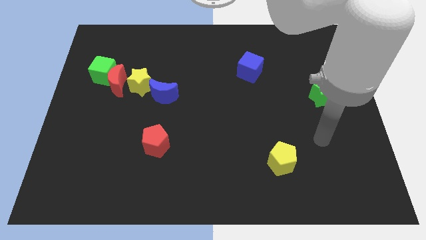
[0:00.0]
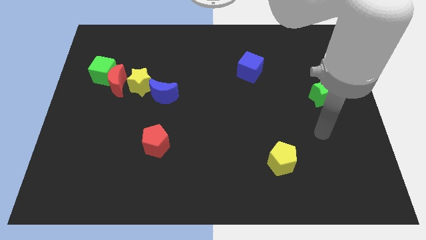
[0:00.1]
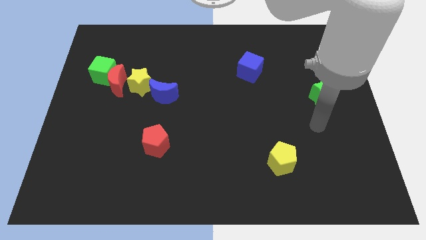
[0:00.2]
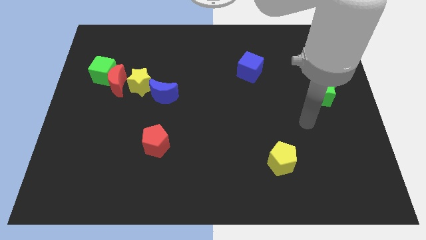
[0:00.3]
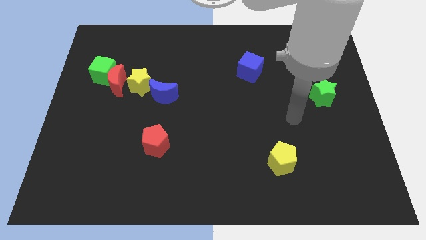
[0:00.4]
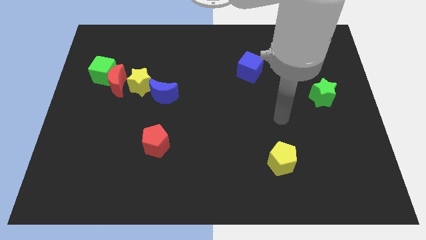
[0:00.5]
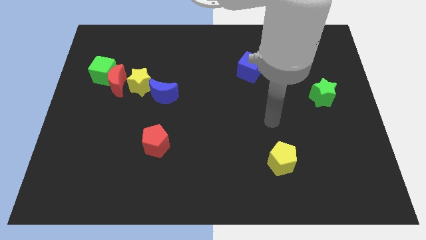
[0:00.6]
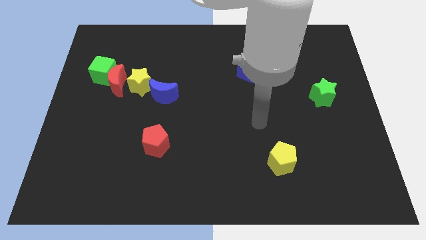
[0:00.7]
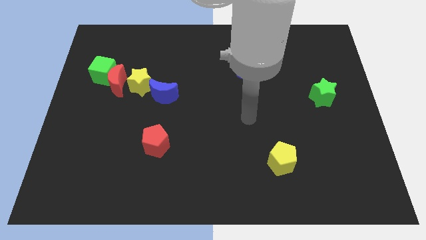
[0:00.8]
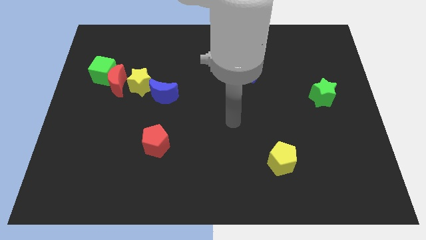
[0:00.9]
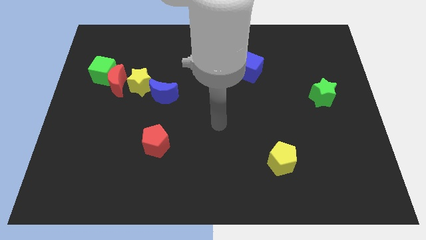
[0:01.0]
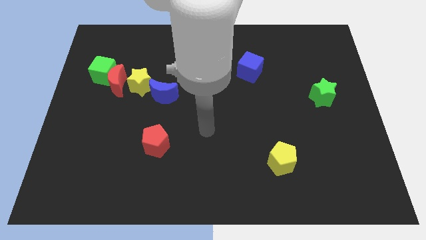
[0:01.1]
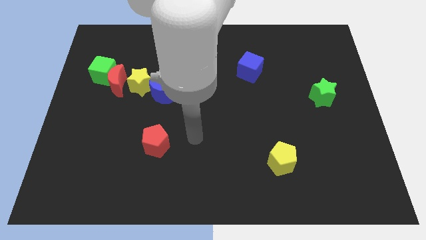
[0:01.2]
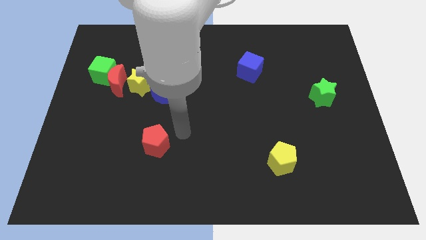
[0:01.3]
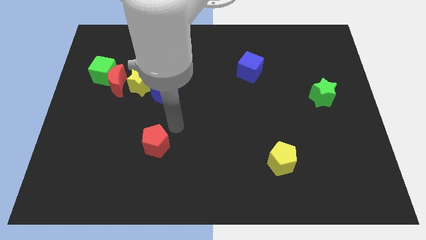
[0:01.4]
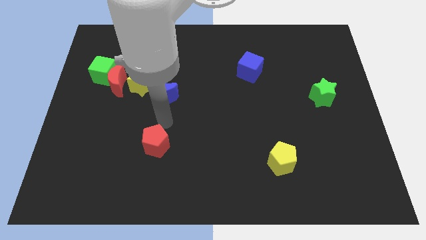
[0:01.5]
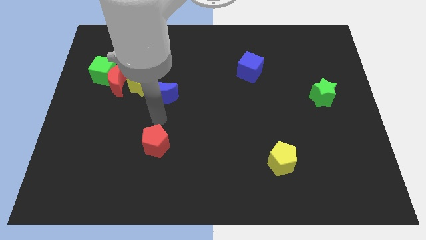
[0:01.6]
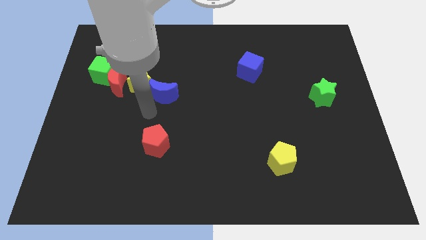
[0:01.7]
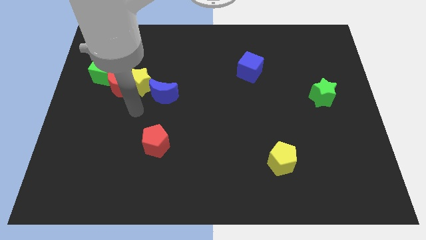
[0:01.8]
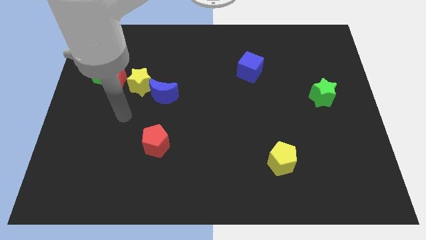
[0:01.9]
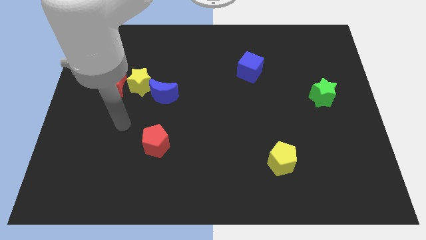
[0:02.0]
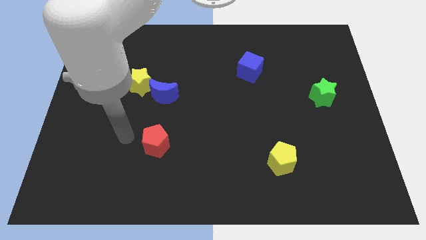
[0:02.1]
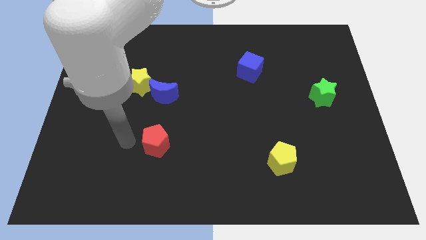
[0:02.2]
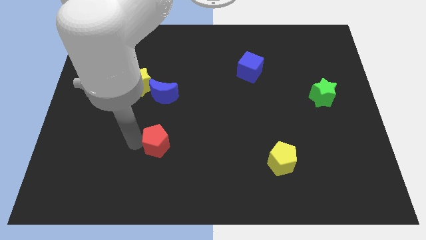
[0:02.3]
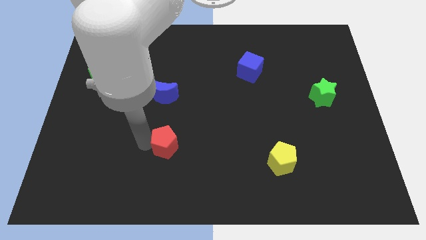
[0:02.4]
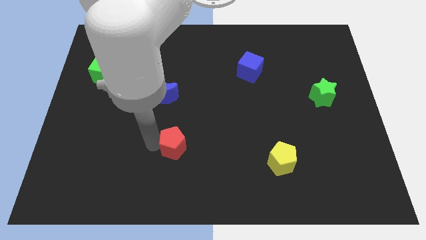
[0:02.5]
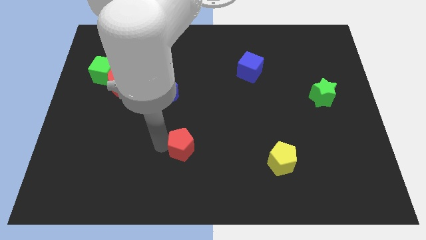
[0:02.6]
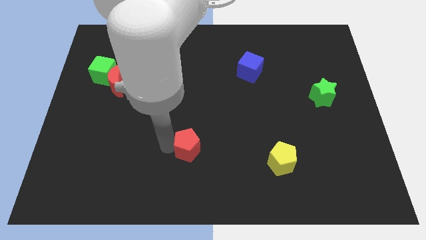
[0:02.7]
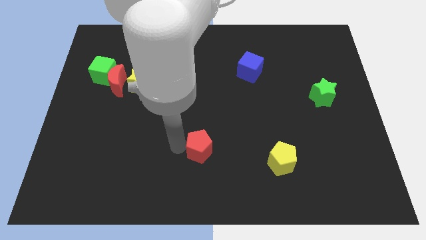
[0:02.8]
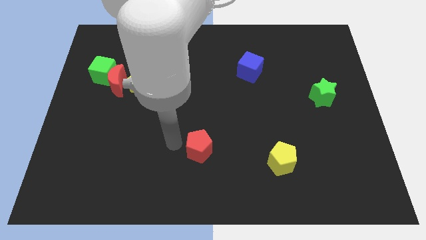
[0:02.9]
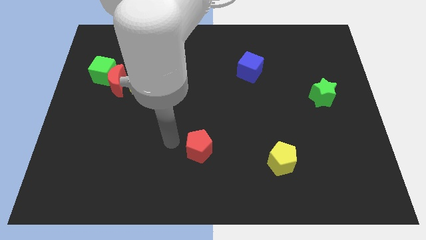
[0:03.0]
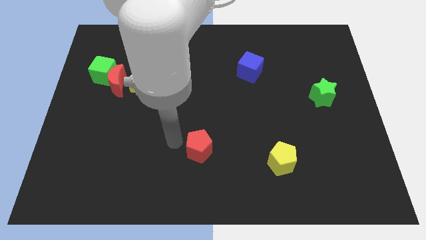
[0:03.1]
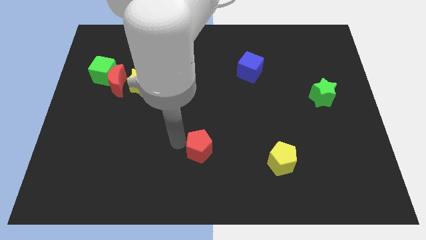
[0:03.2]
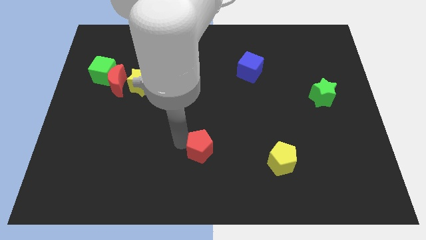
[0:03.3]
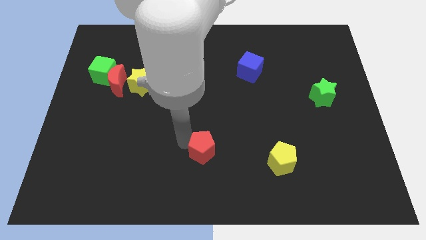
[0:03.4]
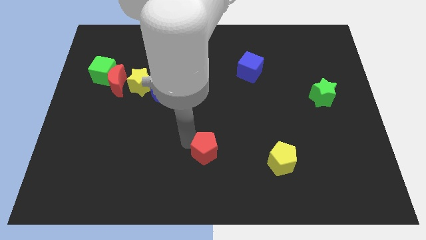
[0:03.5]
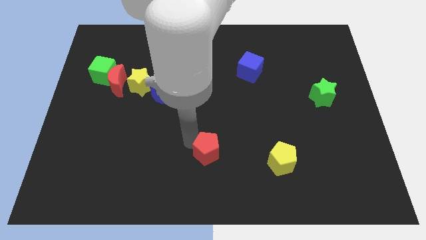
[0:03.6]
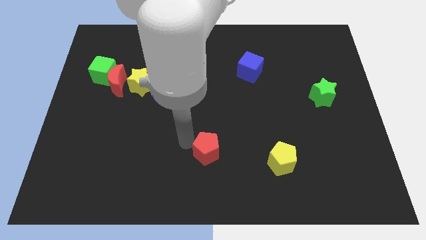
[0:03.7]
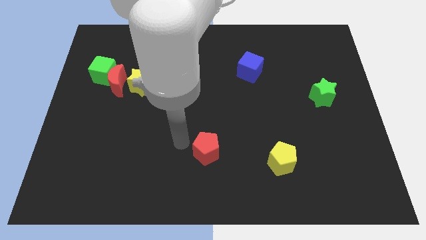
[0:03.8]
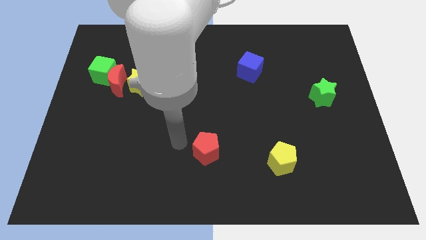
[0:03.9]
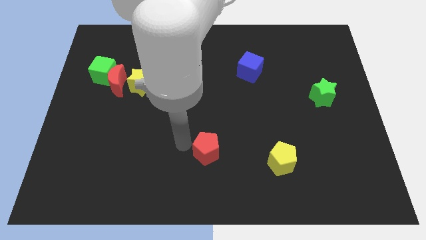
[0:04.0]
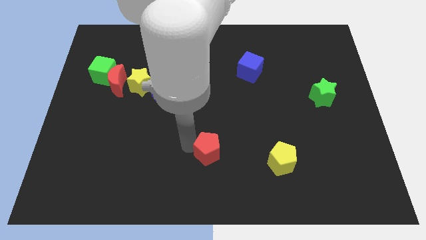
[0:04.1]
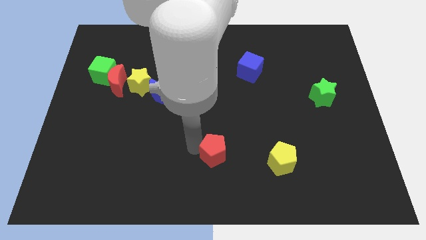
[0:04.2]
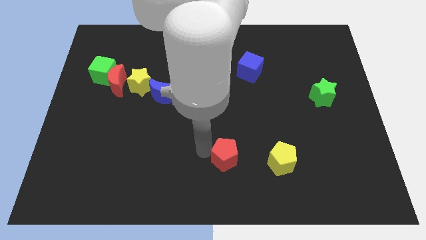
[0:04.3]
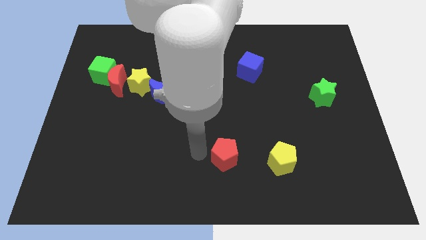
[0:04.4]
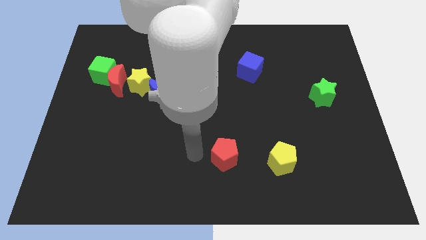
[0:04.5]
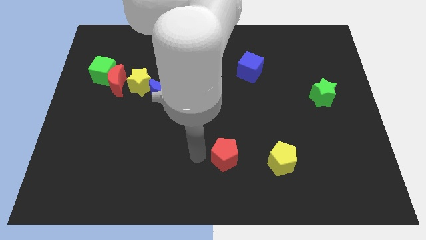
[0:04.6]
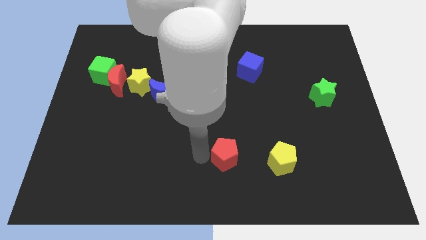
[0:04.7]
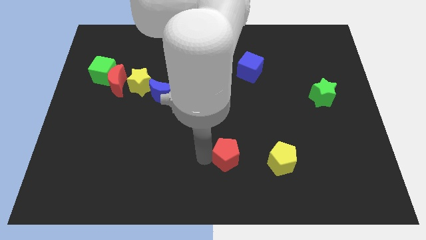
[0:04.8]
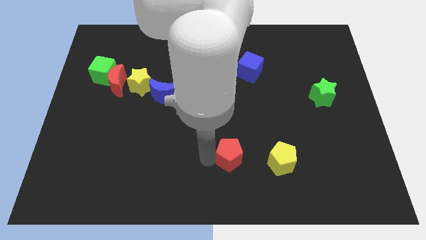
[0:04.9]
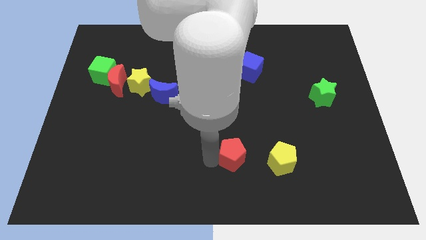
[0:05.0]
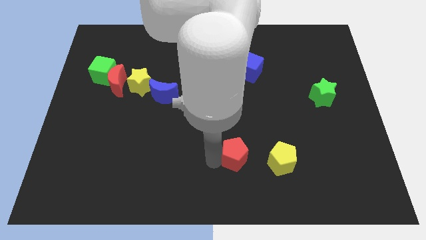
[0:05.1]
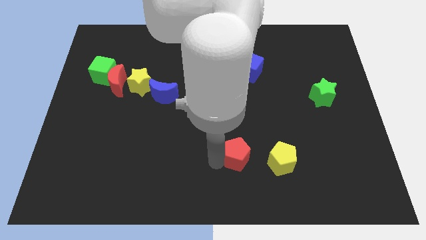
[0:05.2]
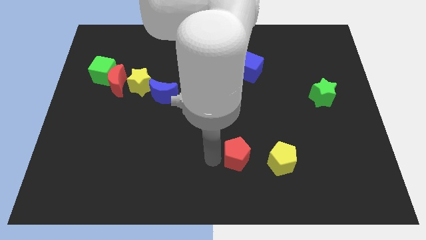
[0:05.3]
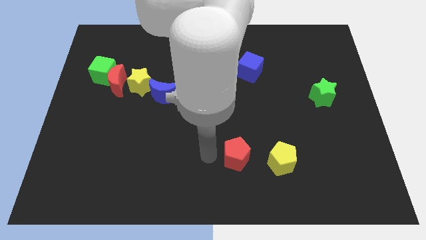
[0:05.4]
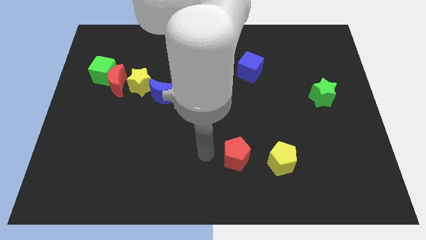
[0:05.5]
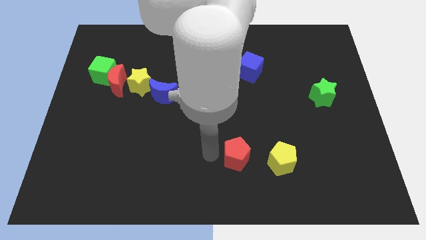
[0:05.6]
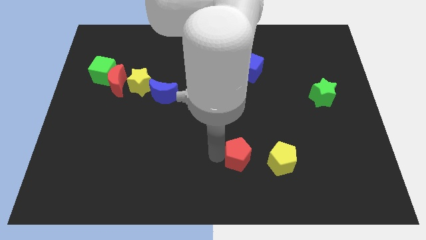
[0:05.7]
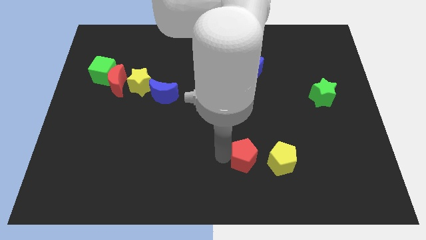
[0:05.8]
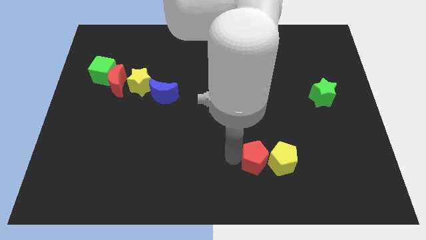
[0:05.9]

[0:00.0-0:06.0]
push the red pentagon next to the yellow pentagon
